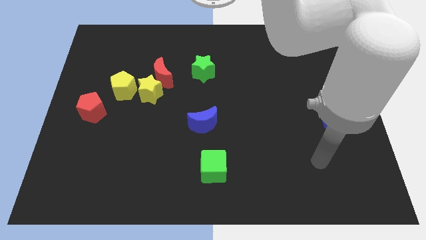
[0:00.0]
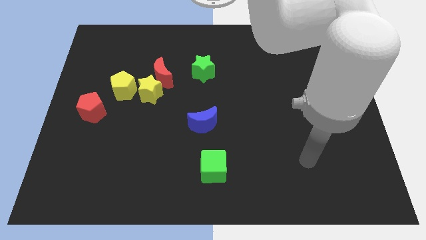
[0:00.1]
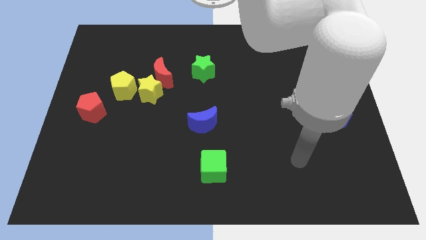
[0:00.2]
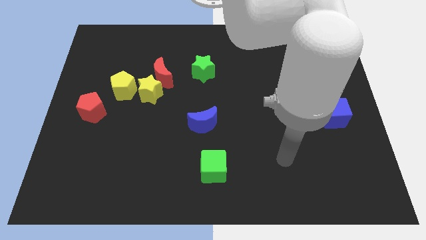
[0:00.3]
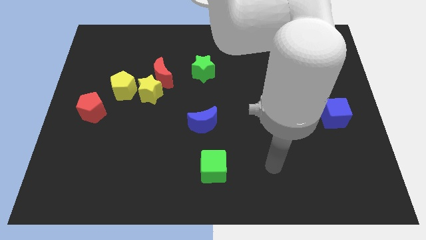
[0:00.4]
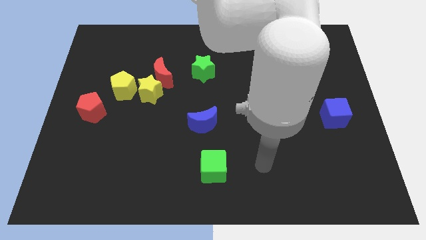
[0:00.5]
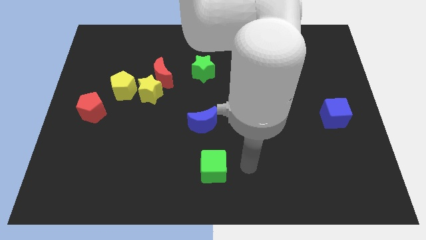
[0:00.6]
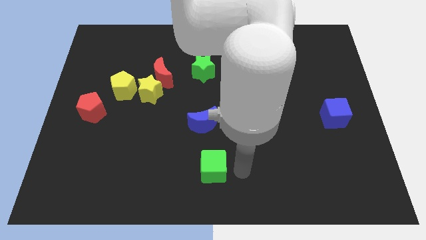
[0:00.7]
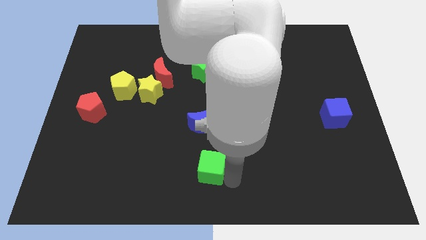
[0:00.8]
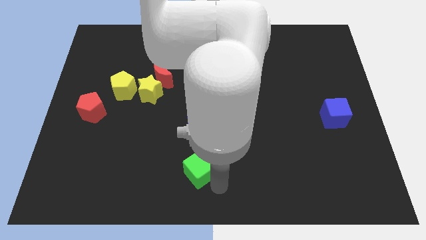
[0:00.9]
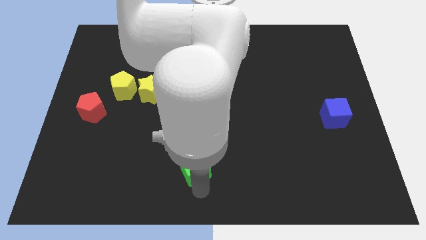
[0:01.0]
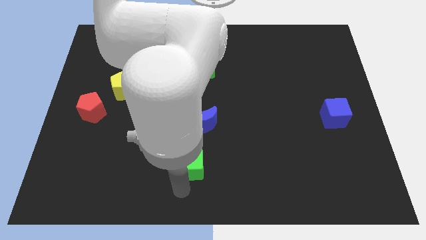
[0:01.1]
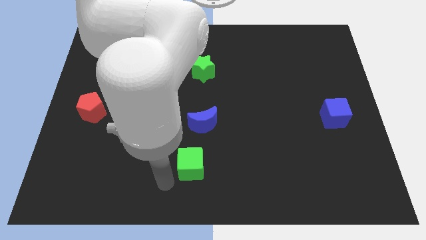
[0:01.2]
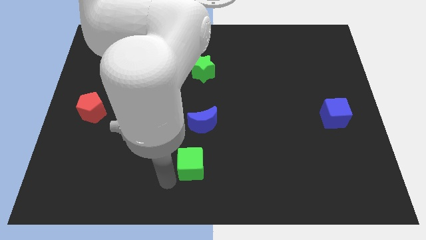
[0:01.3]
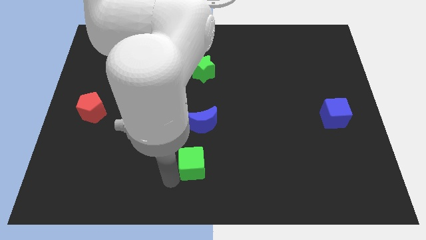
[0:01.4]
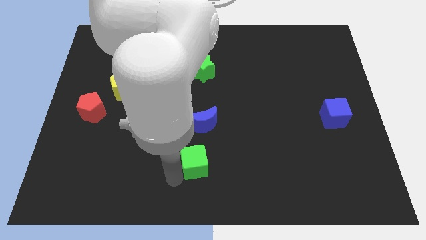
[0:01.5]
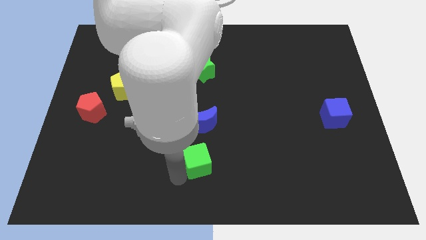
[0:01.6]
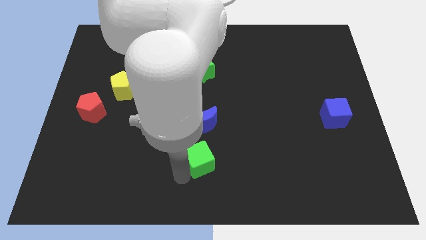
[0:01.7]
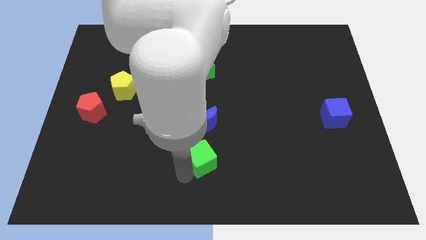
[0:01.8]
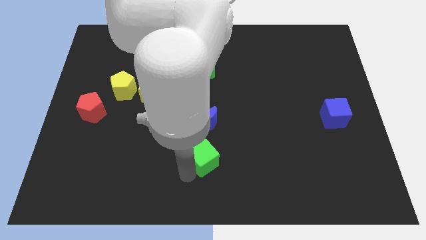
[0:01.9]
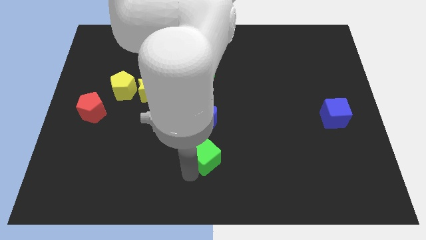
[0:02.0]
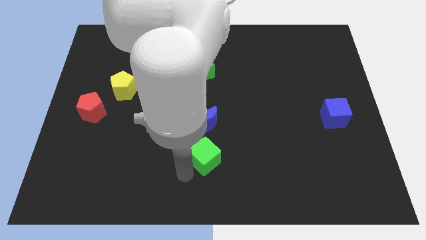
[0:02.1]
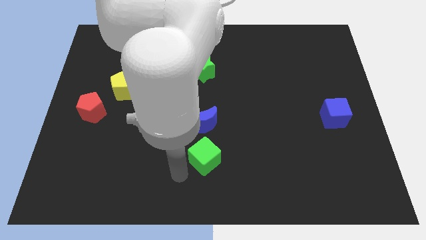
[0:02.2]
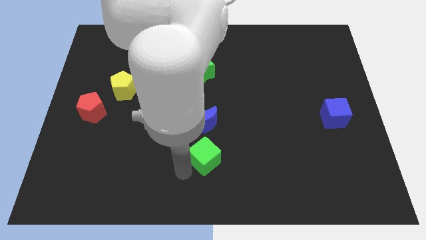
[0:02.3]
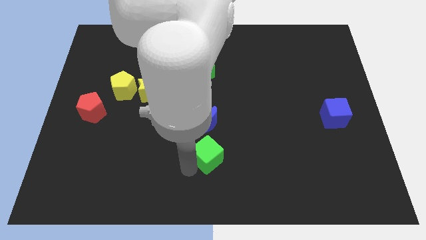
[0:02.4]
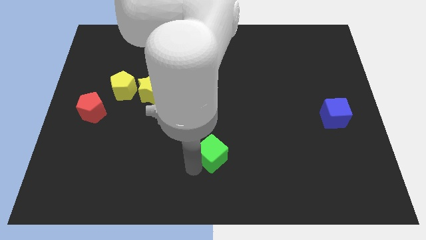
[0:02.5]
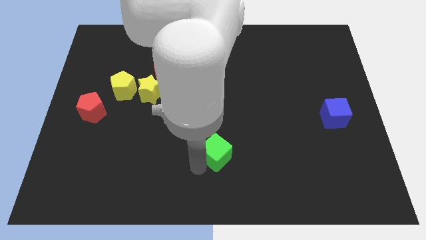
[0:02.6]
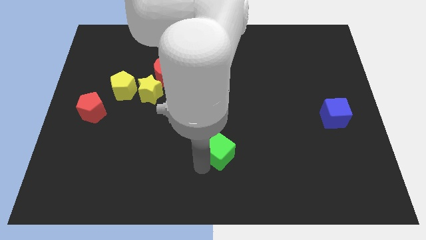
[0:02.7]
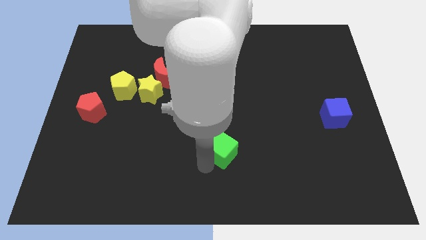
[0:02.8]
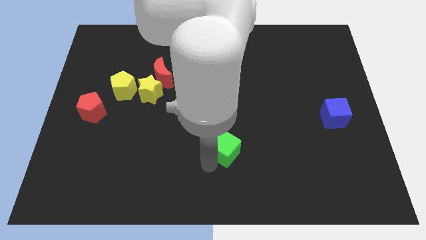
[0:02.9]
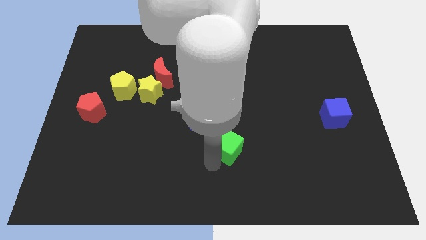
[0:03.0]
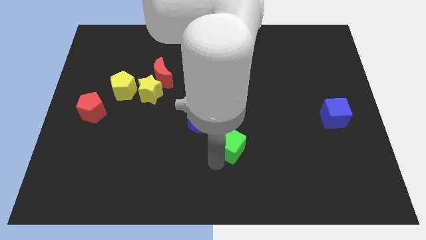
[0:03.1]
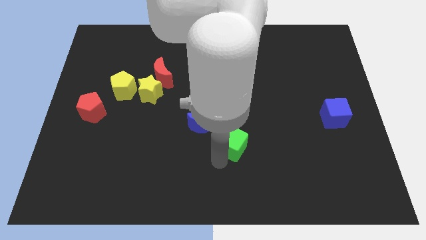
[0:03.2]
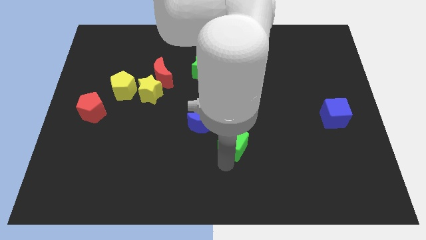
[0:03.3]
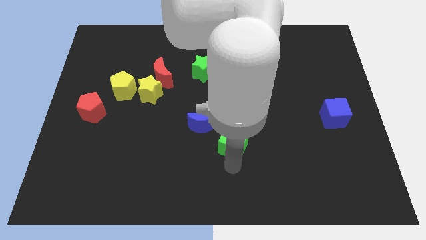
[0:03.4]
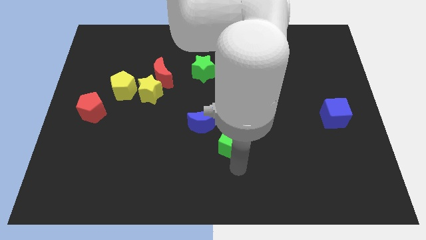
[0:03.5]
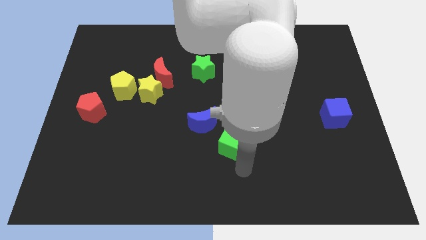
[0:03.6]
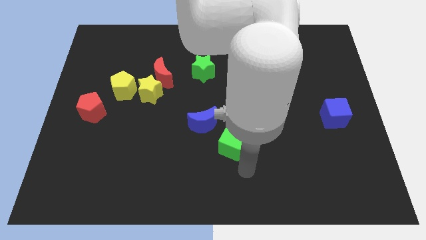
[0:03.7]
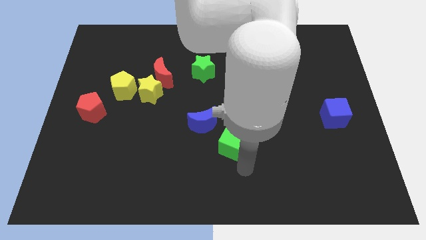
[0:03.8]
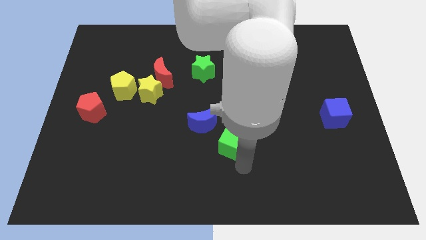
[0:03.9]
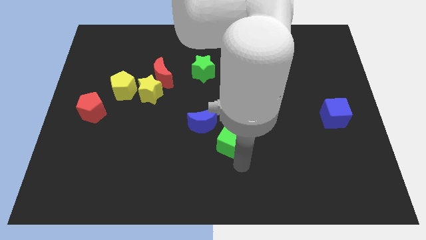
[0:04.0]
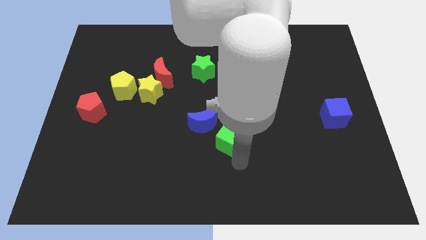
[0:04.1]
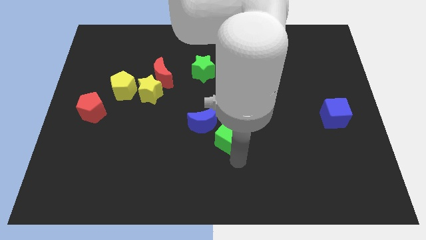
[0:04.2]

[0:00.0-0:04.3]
slide the green cube upwards a bit

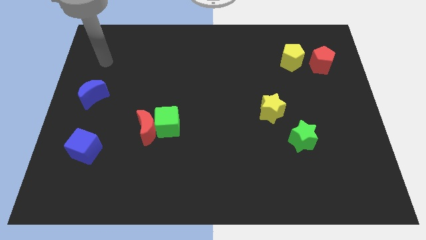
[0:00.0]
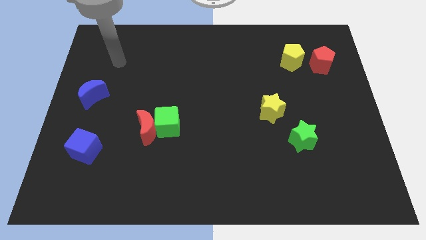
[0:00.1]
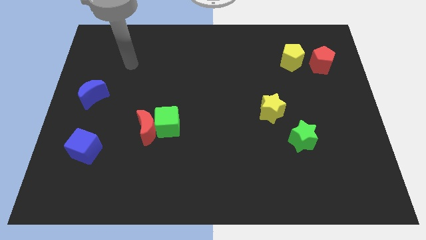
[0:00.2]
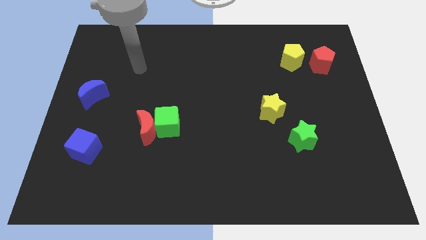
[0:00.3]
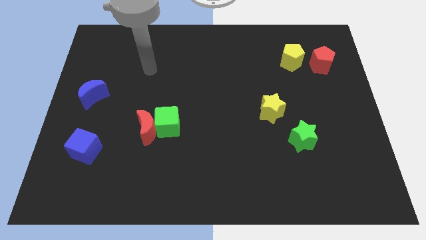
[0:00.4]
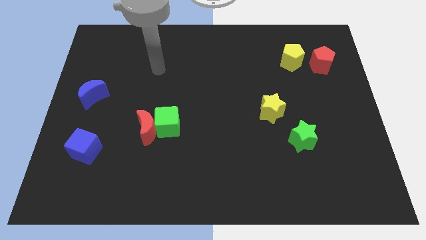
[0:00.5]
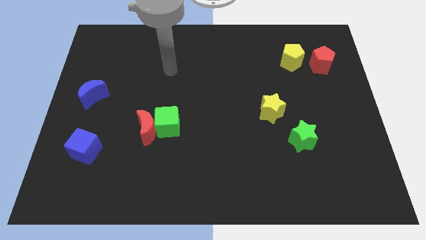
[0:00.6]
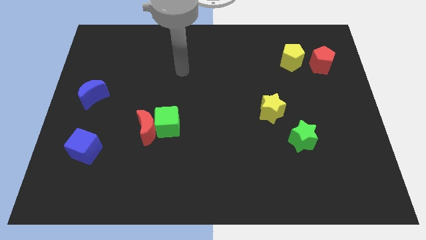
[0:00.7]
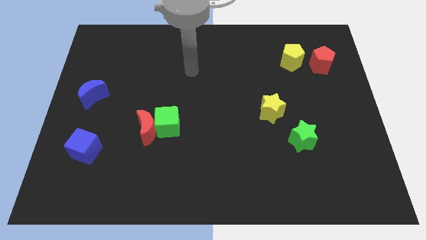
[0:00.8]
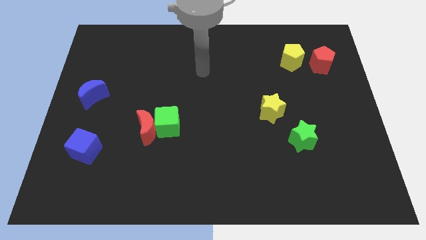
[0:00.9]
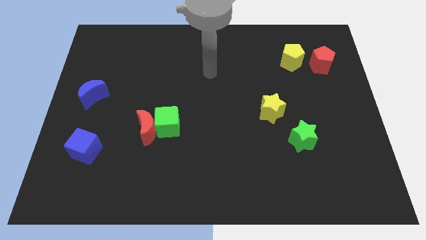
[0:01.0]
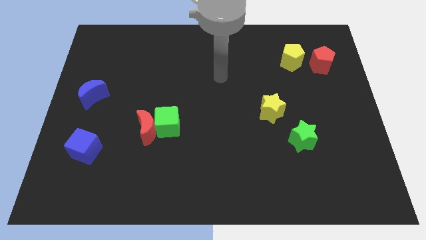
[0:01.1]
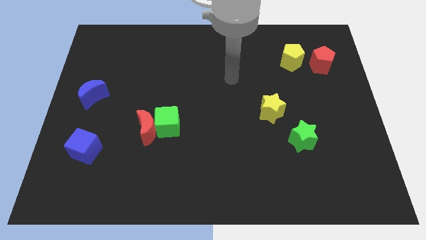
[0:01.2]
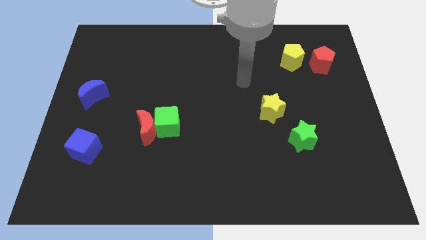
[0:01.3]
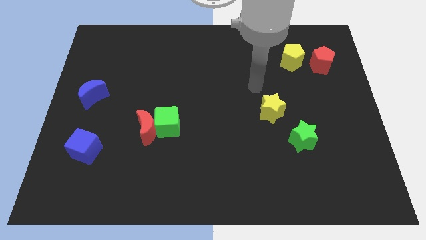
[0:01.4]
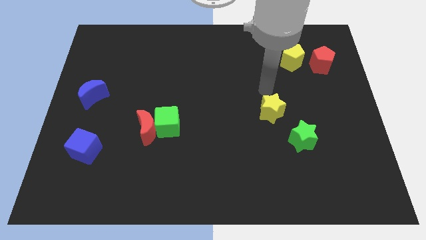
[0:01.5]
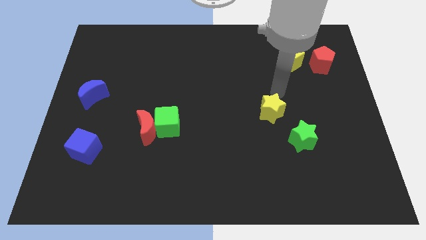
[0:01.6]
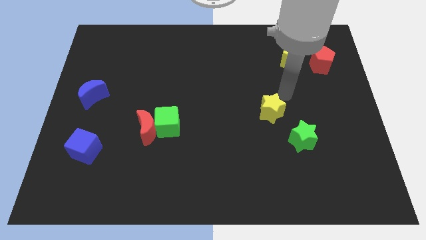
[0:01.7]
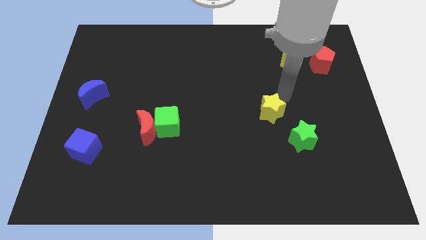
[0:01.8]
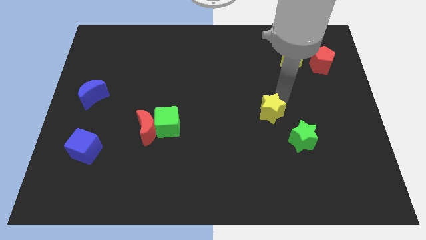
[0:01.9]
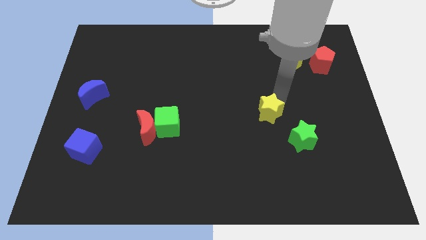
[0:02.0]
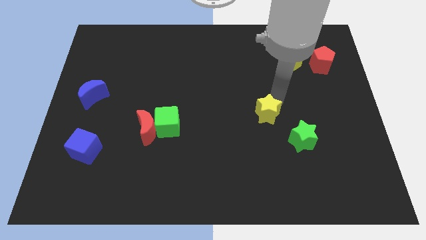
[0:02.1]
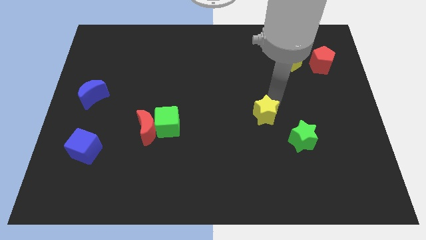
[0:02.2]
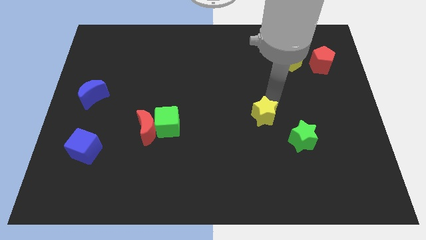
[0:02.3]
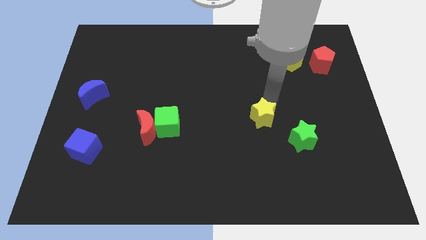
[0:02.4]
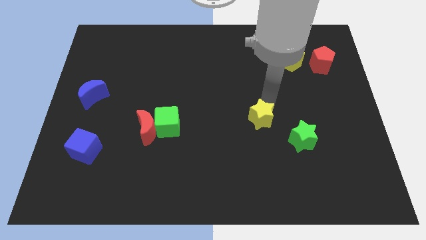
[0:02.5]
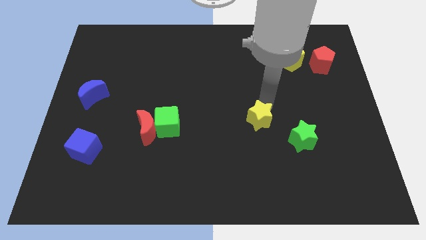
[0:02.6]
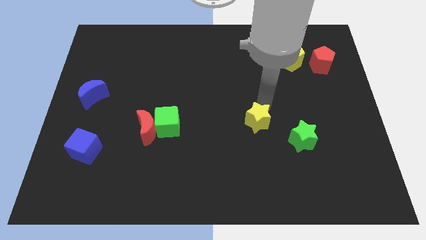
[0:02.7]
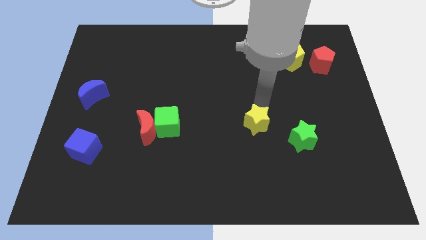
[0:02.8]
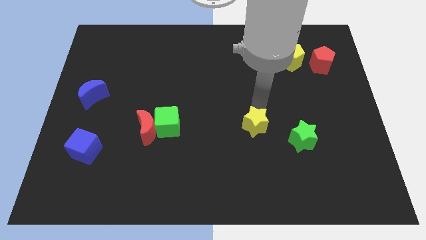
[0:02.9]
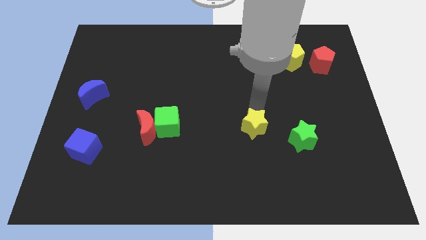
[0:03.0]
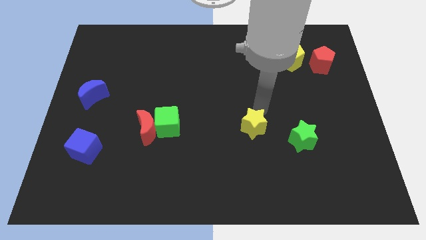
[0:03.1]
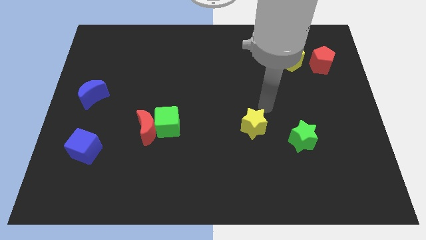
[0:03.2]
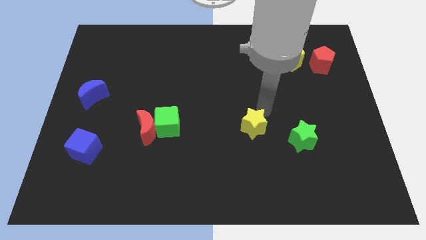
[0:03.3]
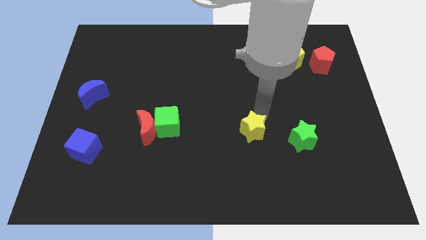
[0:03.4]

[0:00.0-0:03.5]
move the yellow star somewhat diagonally down and to the left

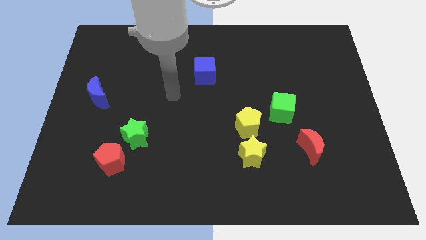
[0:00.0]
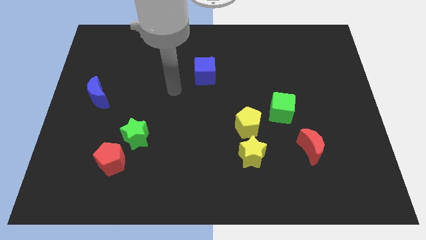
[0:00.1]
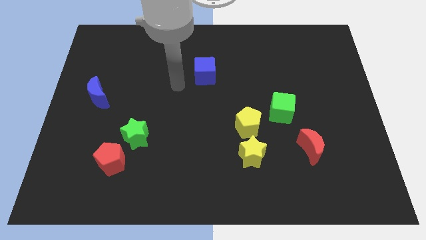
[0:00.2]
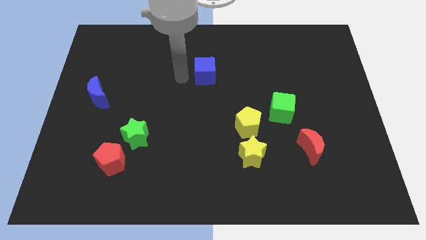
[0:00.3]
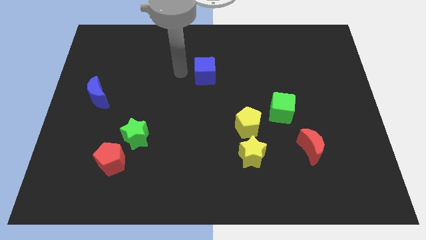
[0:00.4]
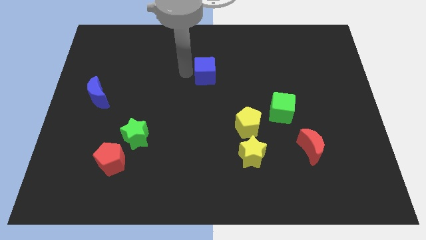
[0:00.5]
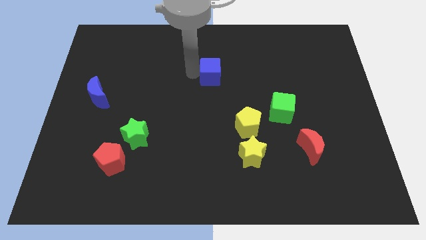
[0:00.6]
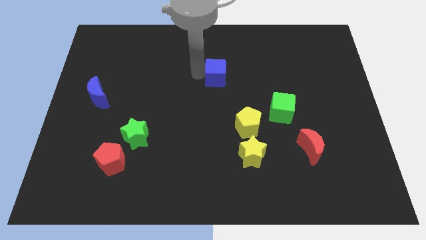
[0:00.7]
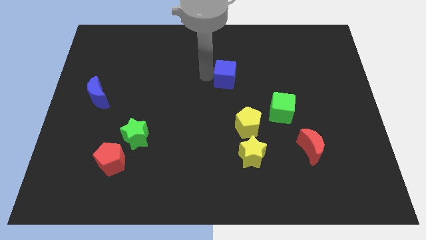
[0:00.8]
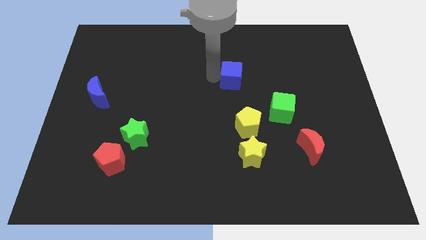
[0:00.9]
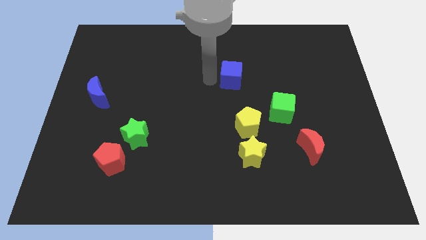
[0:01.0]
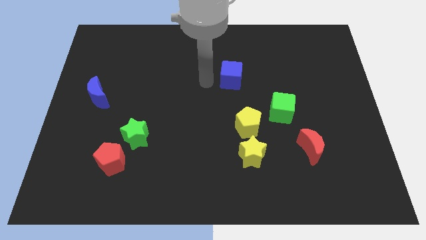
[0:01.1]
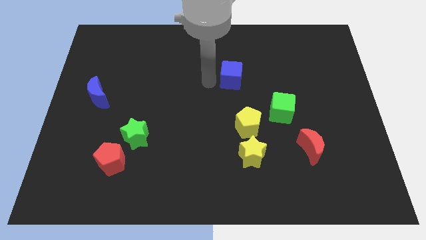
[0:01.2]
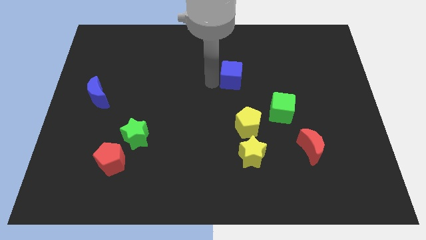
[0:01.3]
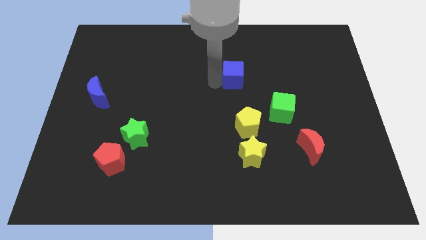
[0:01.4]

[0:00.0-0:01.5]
slide the blue cube a little right
